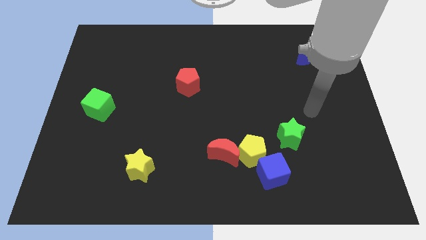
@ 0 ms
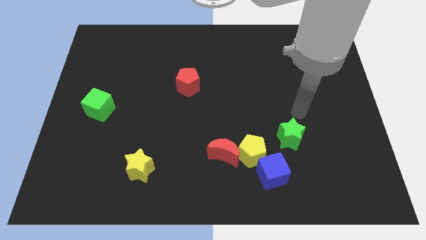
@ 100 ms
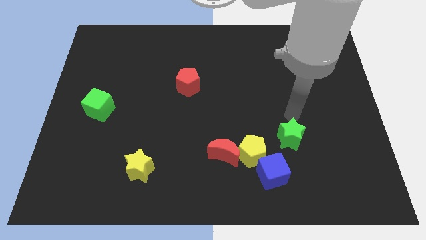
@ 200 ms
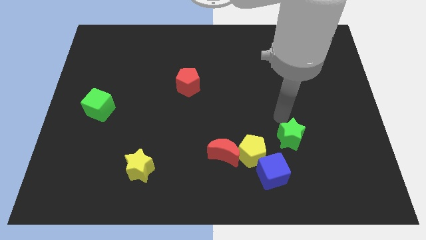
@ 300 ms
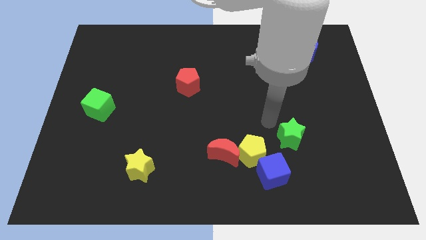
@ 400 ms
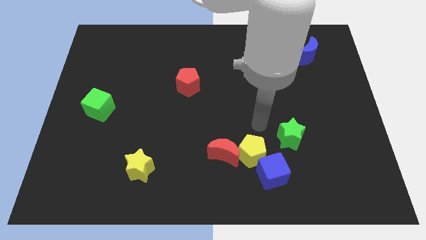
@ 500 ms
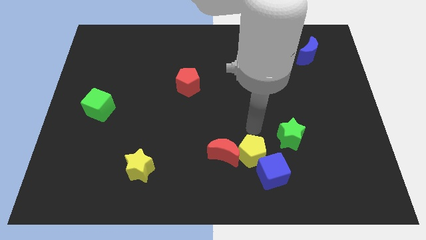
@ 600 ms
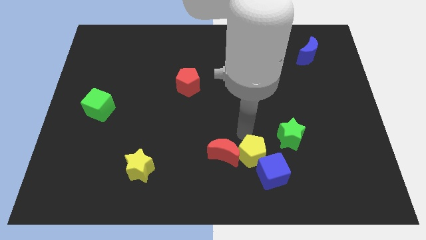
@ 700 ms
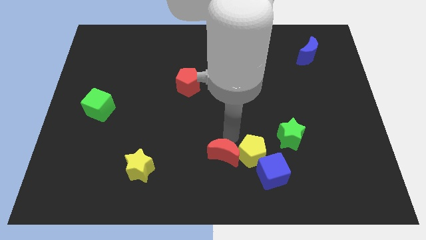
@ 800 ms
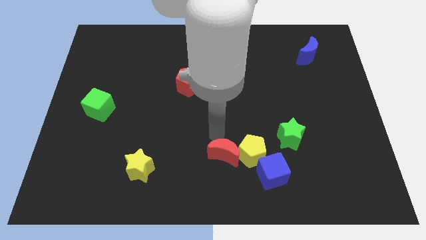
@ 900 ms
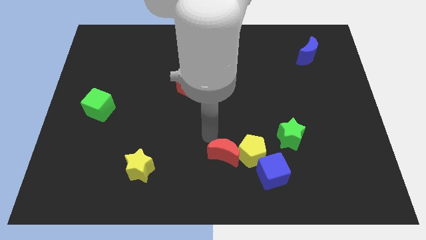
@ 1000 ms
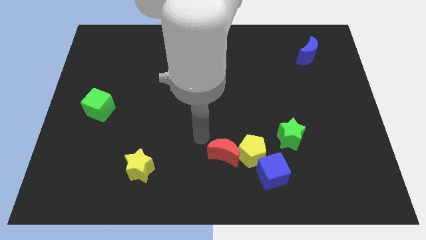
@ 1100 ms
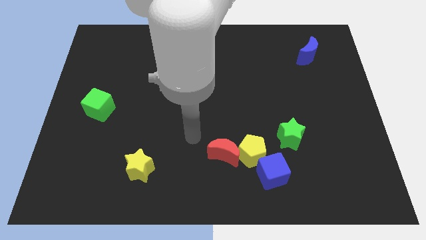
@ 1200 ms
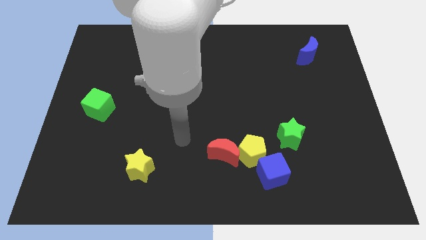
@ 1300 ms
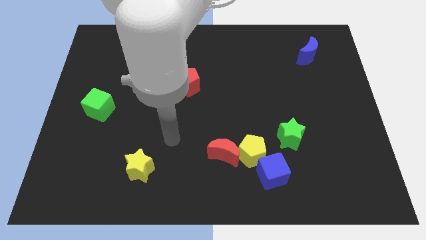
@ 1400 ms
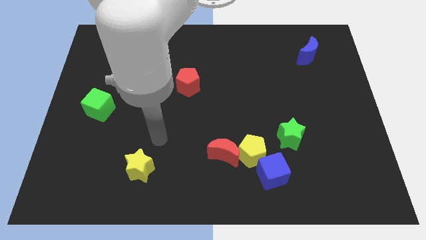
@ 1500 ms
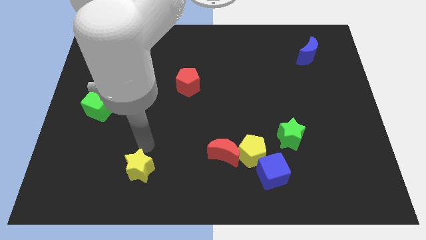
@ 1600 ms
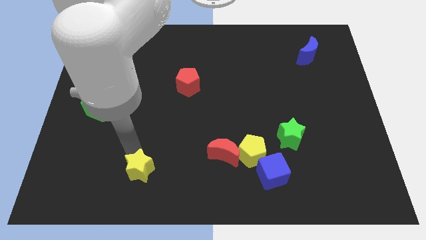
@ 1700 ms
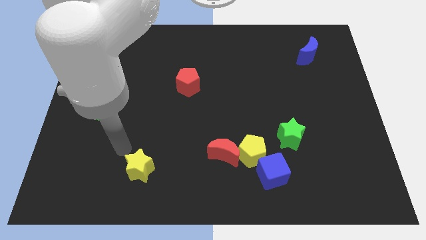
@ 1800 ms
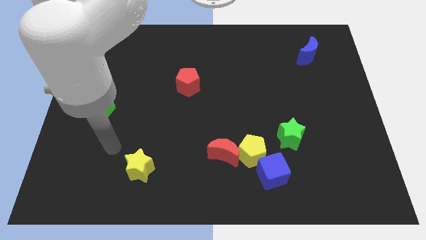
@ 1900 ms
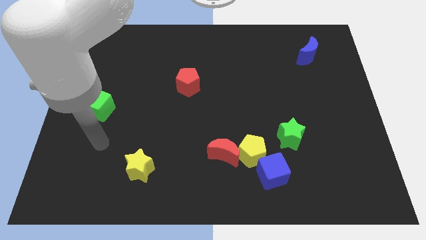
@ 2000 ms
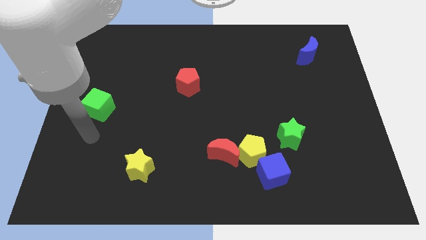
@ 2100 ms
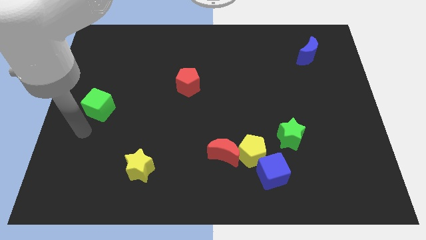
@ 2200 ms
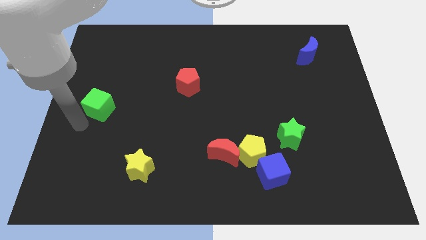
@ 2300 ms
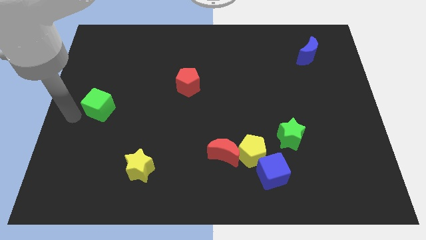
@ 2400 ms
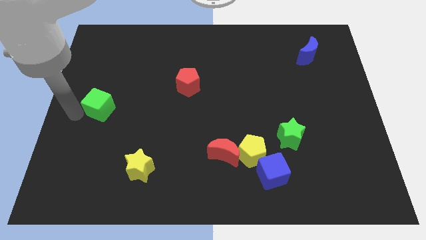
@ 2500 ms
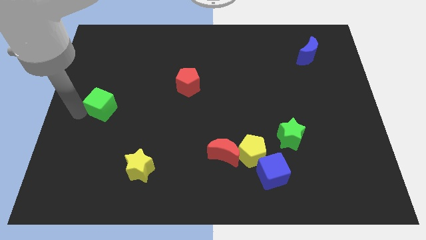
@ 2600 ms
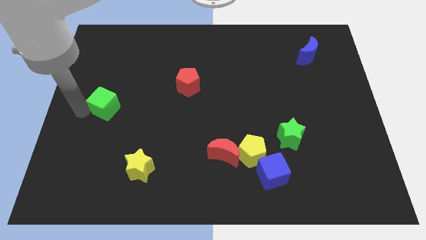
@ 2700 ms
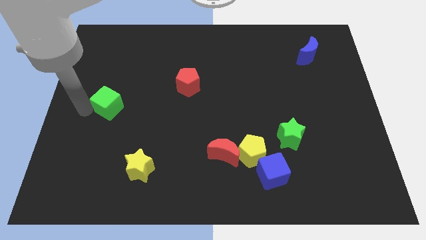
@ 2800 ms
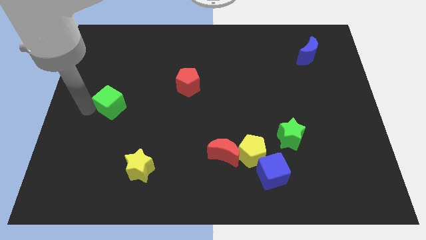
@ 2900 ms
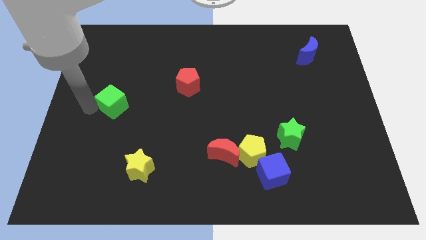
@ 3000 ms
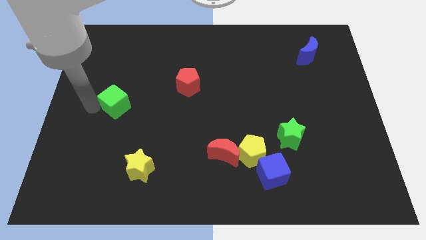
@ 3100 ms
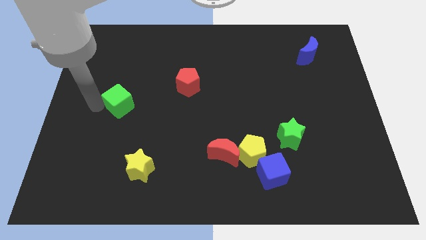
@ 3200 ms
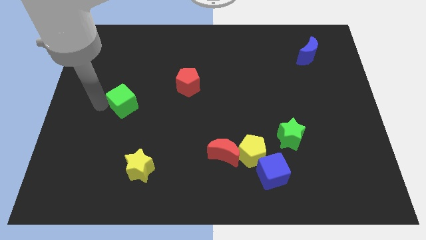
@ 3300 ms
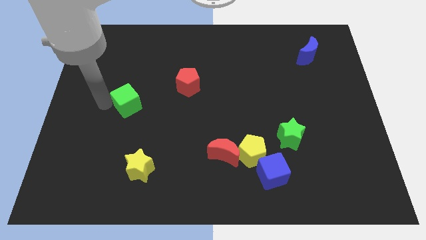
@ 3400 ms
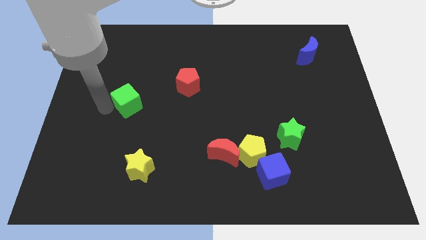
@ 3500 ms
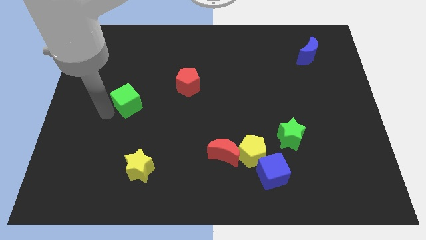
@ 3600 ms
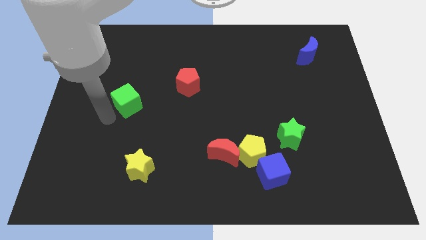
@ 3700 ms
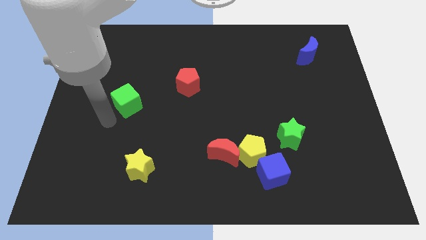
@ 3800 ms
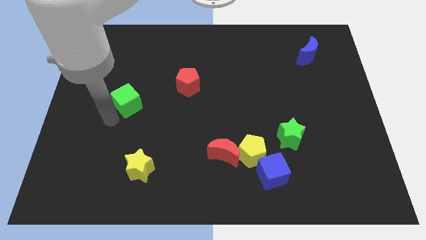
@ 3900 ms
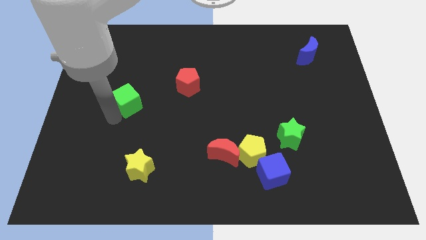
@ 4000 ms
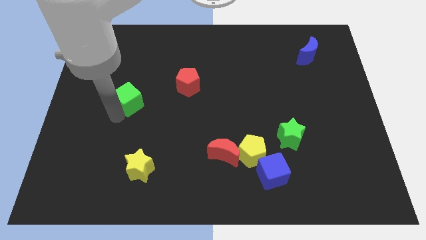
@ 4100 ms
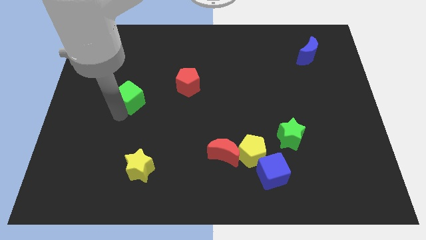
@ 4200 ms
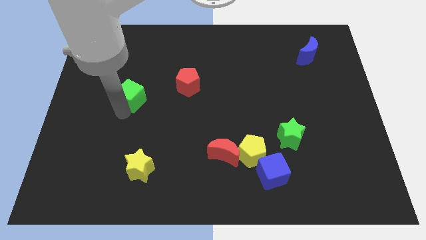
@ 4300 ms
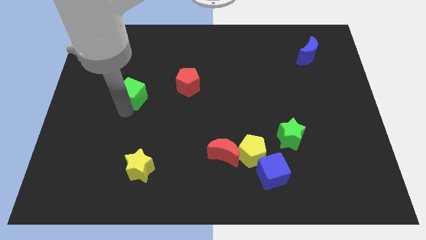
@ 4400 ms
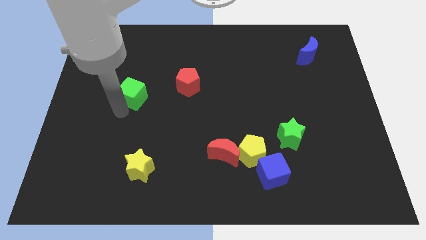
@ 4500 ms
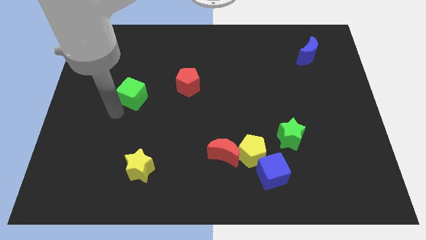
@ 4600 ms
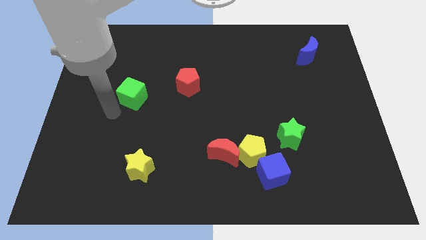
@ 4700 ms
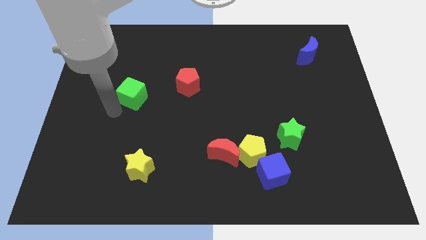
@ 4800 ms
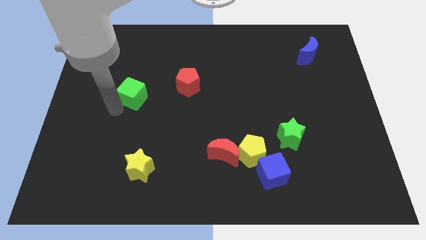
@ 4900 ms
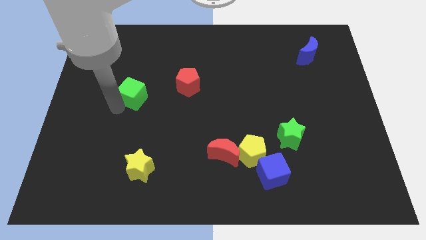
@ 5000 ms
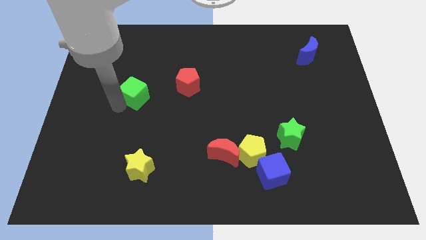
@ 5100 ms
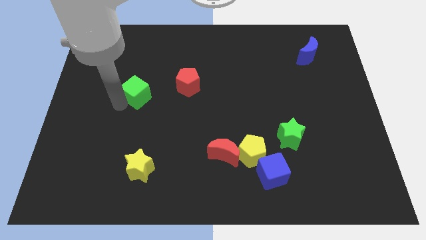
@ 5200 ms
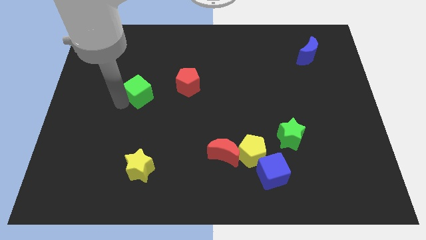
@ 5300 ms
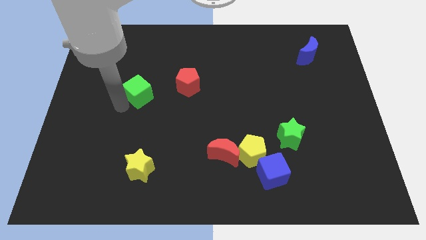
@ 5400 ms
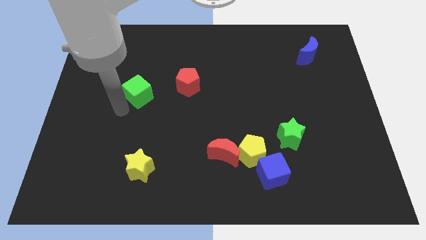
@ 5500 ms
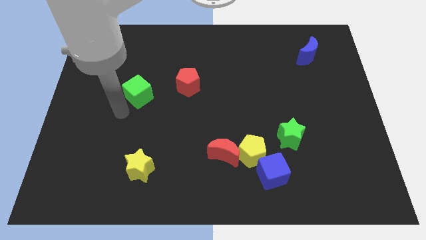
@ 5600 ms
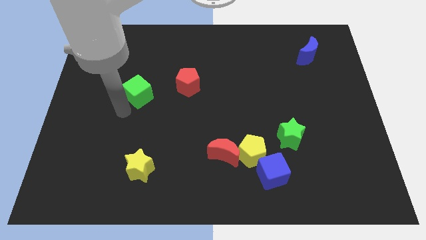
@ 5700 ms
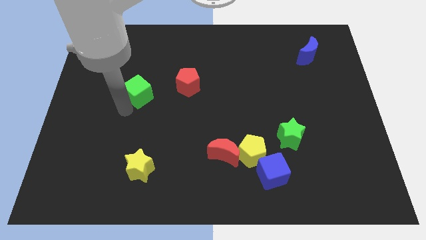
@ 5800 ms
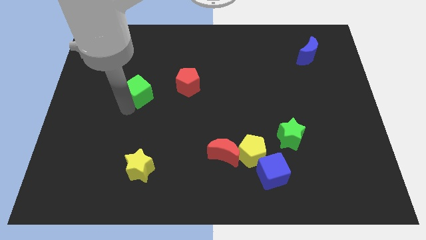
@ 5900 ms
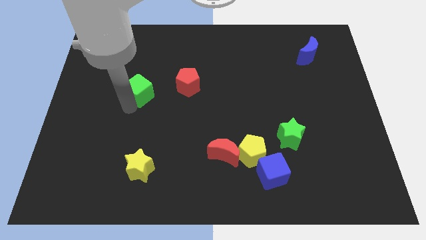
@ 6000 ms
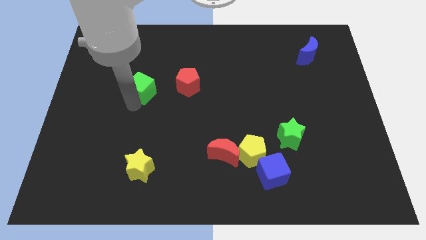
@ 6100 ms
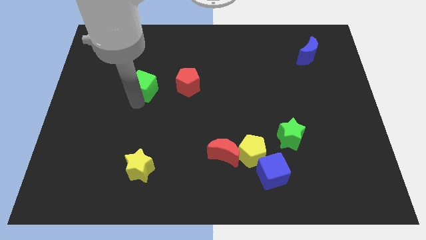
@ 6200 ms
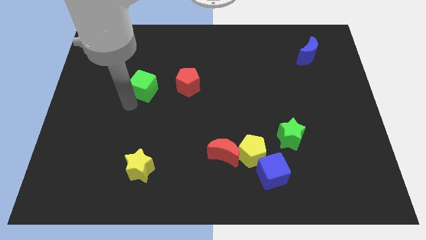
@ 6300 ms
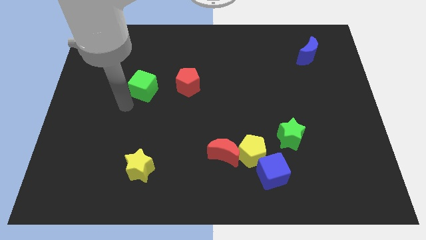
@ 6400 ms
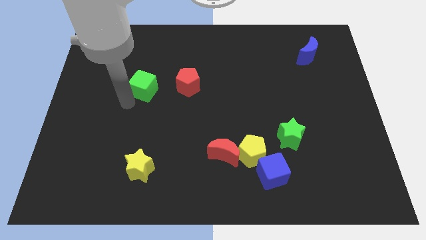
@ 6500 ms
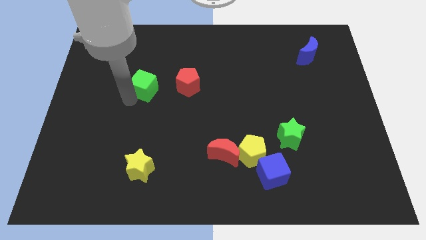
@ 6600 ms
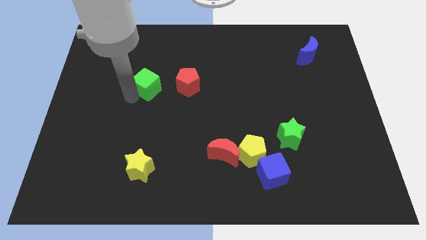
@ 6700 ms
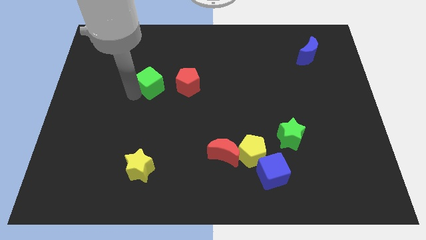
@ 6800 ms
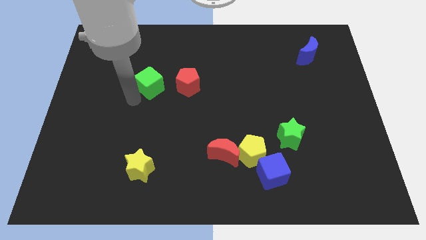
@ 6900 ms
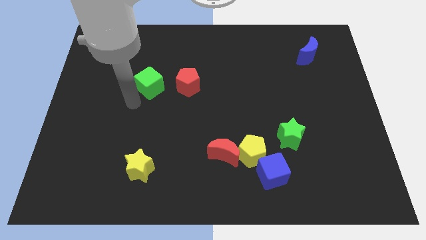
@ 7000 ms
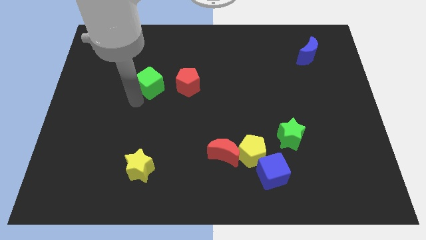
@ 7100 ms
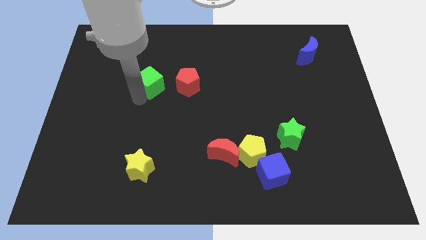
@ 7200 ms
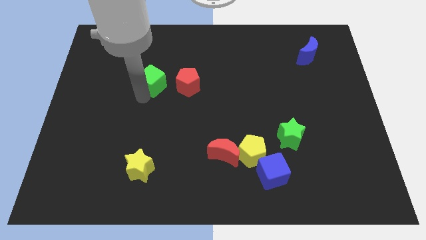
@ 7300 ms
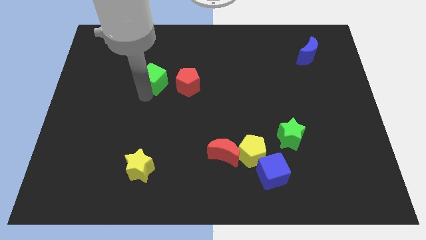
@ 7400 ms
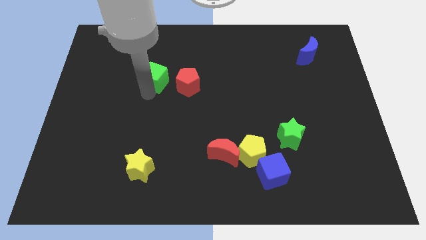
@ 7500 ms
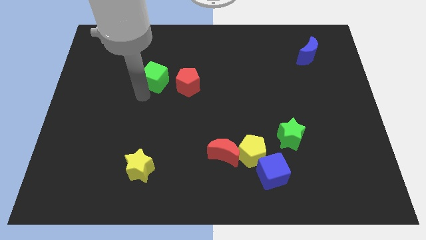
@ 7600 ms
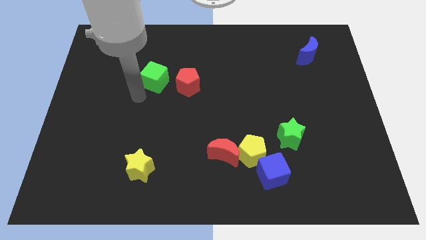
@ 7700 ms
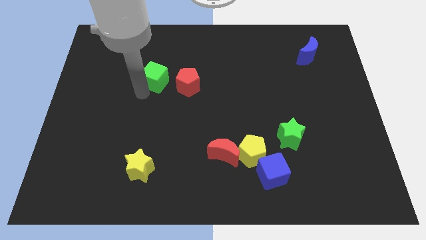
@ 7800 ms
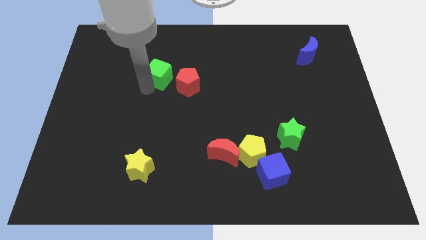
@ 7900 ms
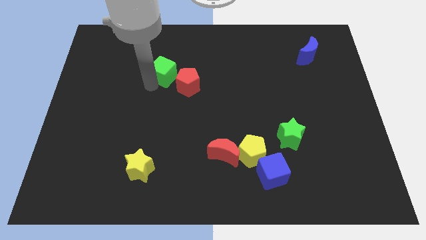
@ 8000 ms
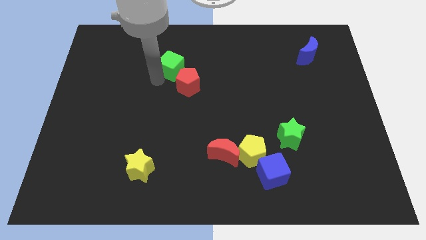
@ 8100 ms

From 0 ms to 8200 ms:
slide the green cube to the top side of the red pentagon
